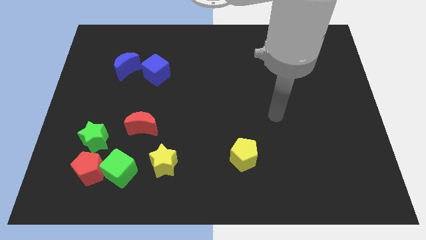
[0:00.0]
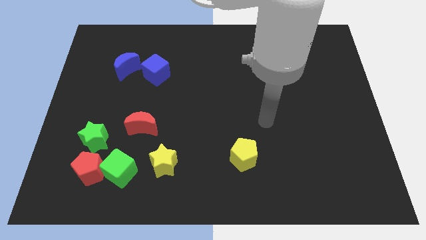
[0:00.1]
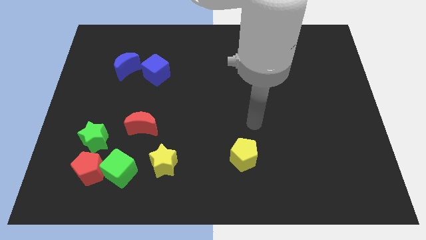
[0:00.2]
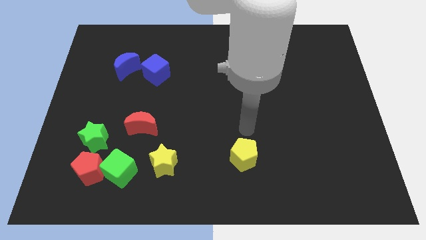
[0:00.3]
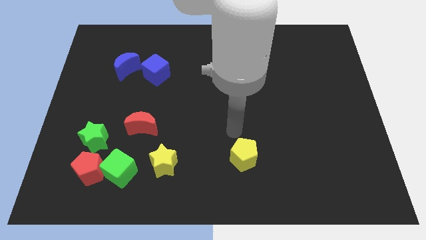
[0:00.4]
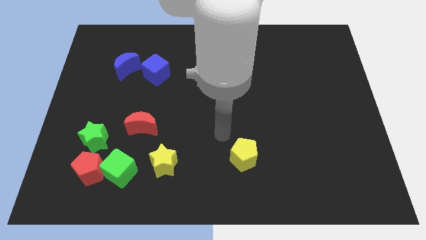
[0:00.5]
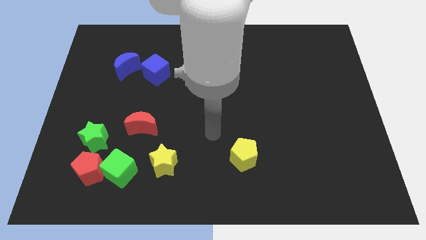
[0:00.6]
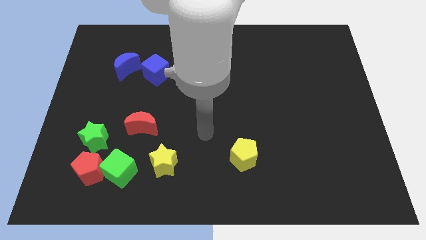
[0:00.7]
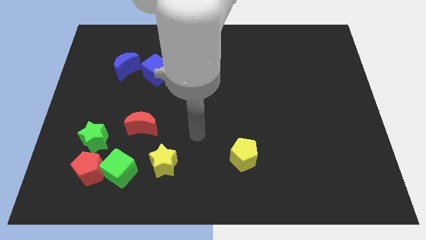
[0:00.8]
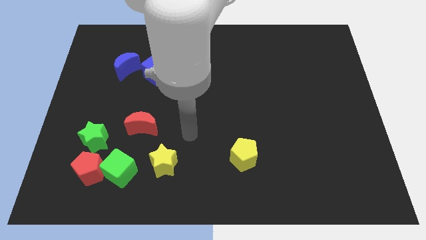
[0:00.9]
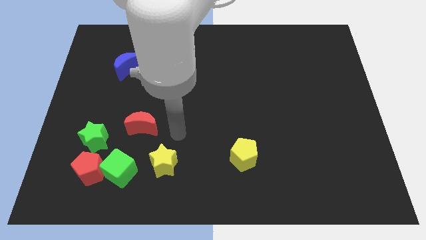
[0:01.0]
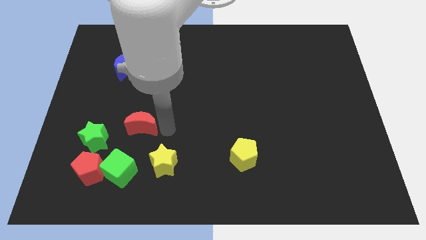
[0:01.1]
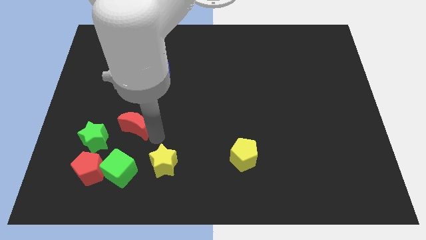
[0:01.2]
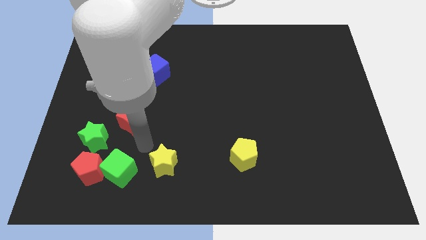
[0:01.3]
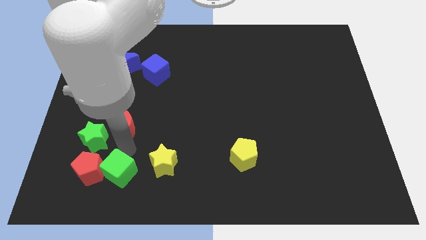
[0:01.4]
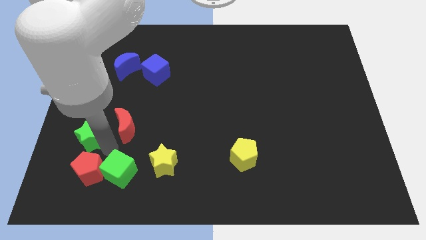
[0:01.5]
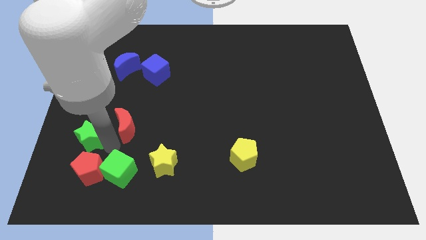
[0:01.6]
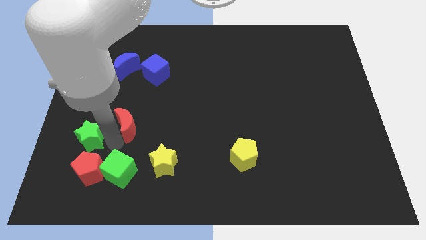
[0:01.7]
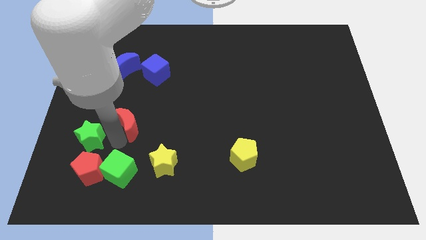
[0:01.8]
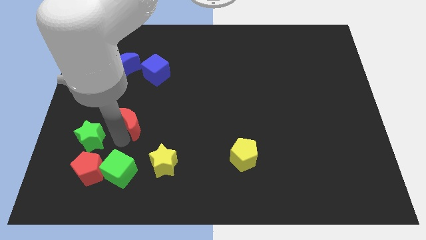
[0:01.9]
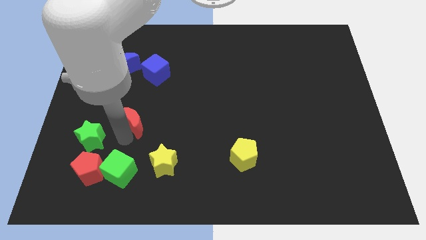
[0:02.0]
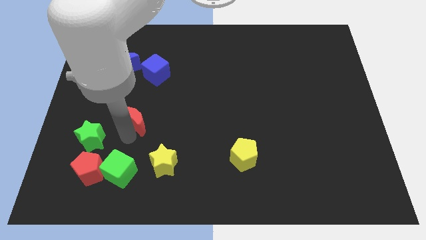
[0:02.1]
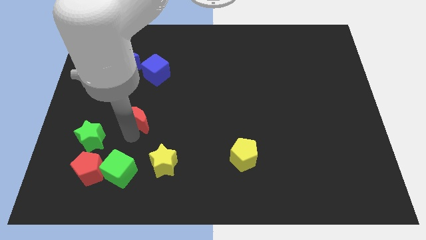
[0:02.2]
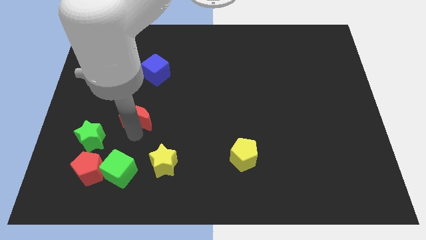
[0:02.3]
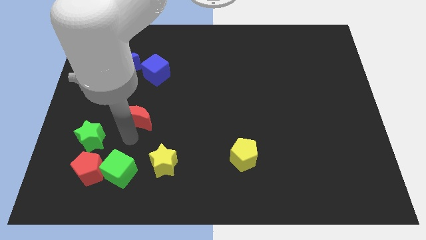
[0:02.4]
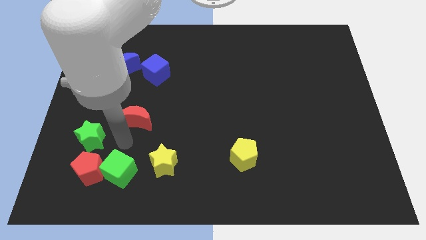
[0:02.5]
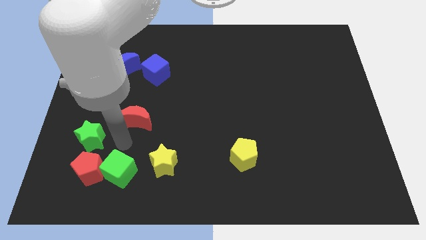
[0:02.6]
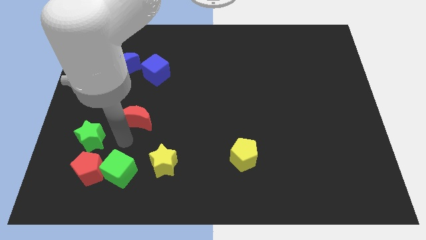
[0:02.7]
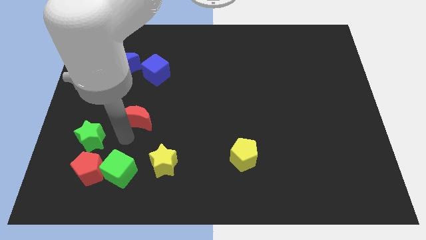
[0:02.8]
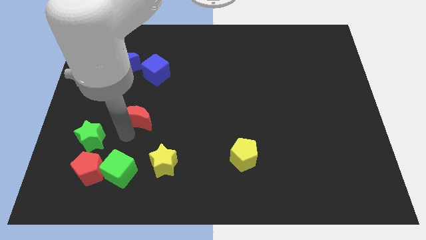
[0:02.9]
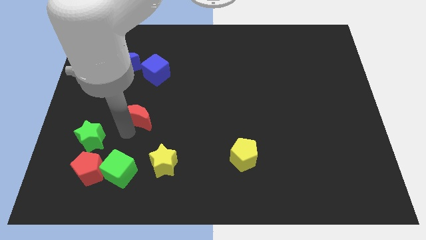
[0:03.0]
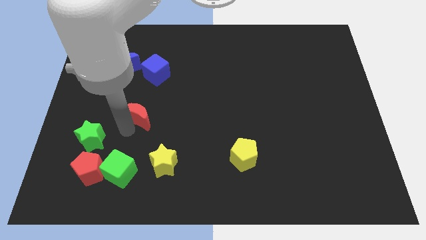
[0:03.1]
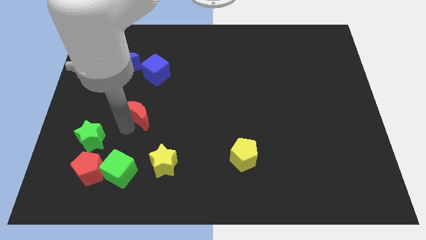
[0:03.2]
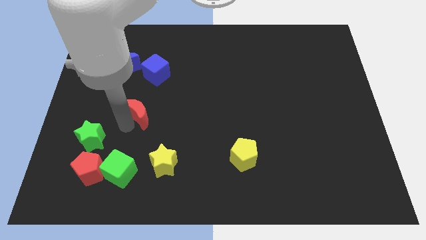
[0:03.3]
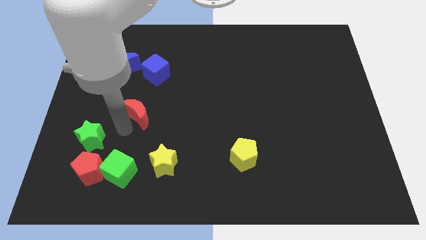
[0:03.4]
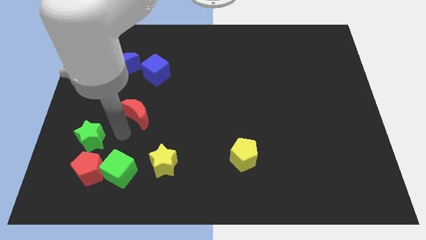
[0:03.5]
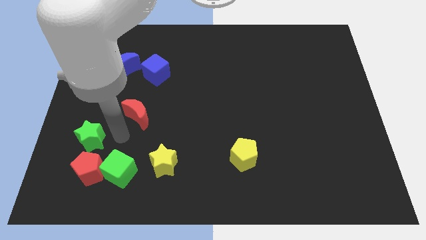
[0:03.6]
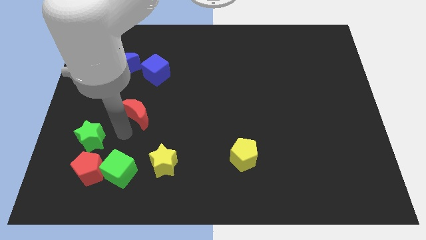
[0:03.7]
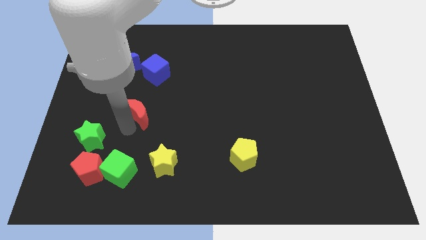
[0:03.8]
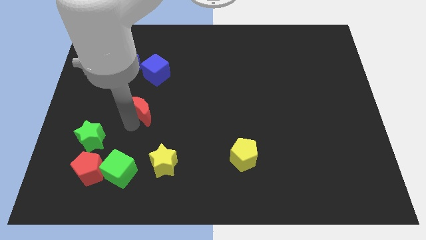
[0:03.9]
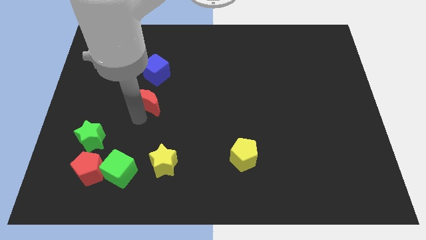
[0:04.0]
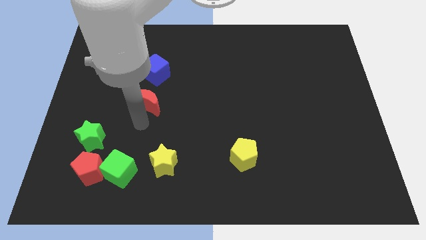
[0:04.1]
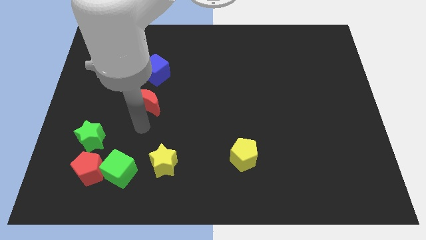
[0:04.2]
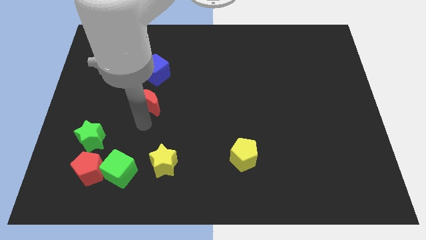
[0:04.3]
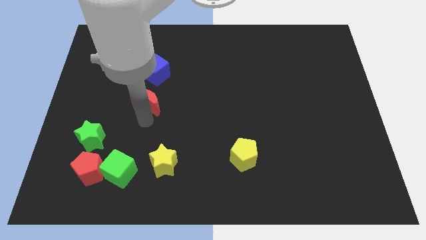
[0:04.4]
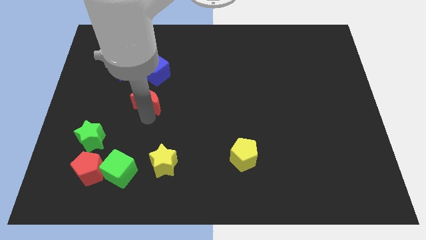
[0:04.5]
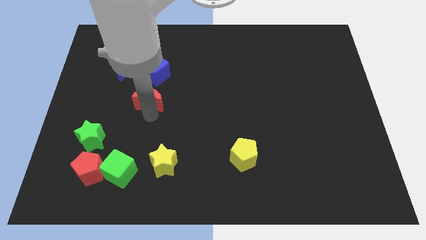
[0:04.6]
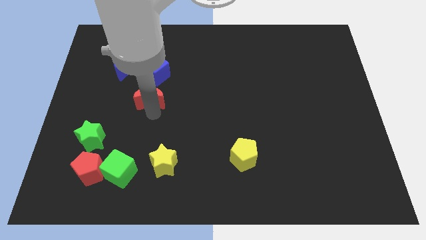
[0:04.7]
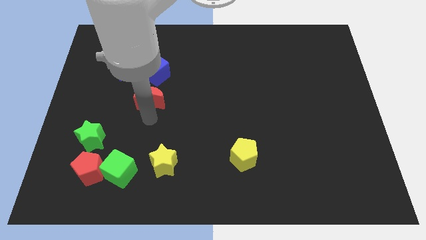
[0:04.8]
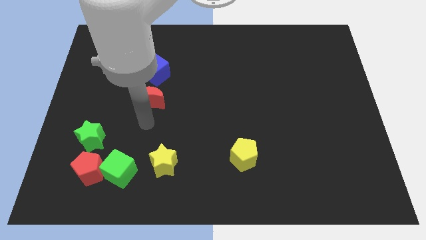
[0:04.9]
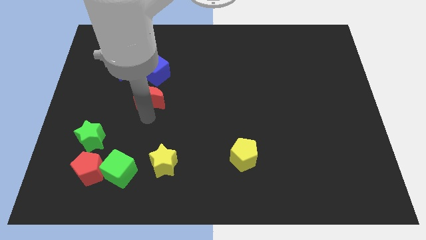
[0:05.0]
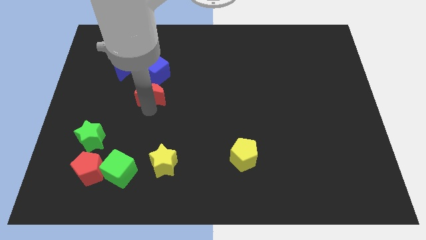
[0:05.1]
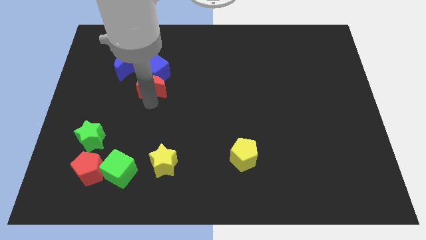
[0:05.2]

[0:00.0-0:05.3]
put the red moon next to the blue cube

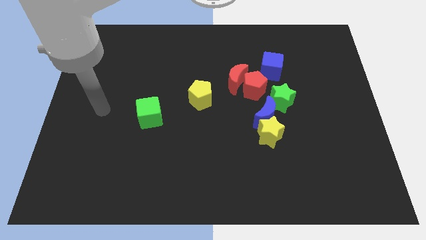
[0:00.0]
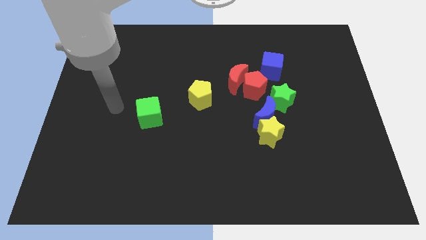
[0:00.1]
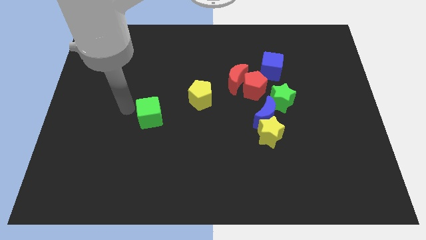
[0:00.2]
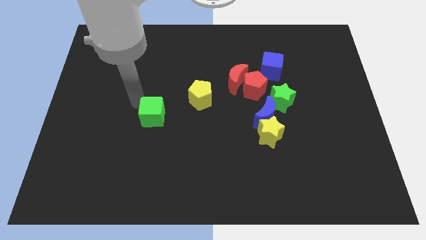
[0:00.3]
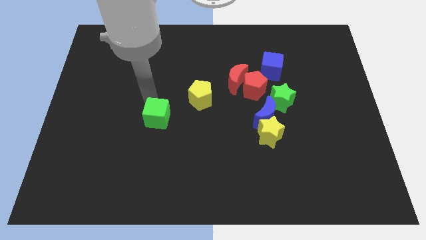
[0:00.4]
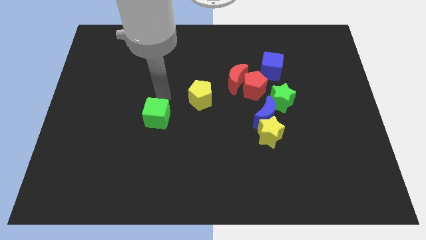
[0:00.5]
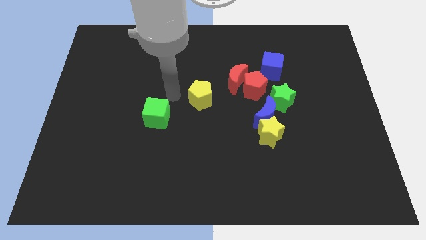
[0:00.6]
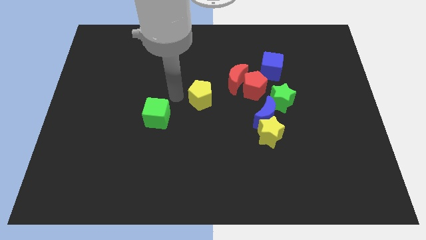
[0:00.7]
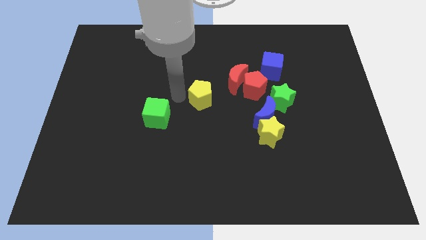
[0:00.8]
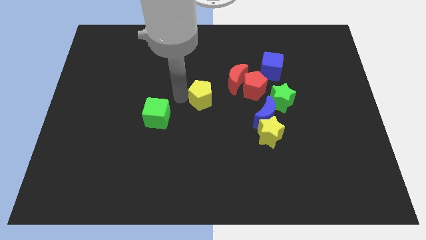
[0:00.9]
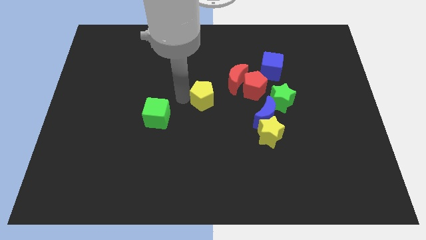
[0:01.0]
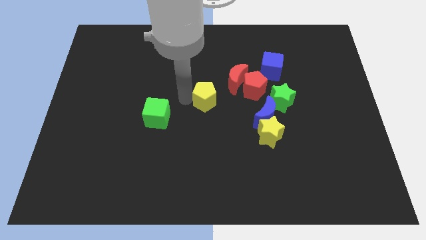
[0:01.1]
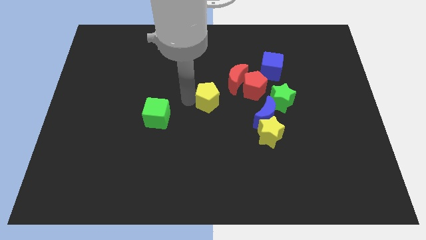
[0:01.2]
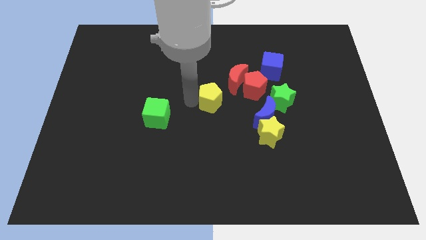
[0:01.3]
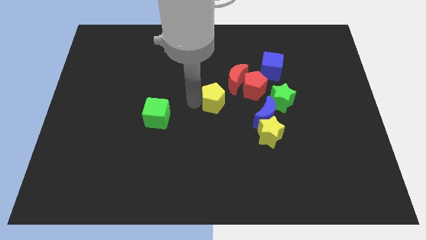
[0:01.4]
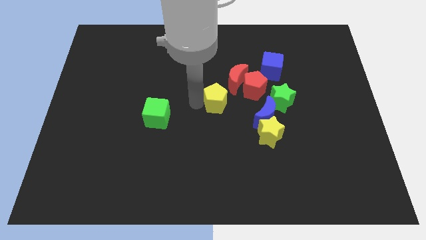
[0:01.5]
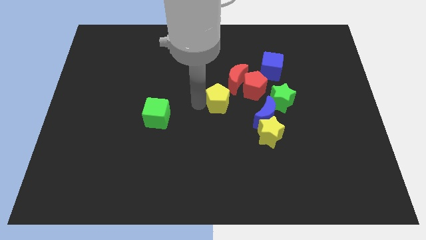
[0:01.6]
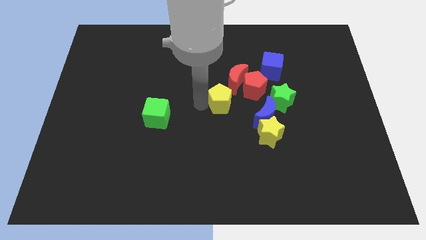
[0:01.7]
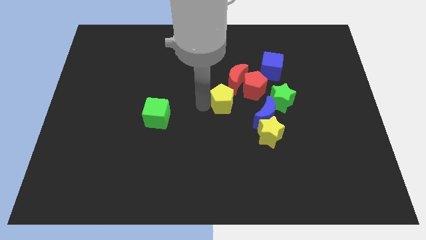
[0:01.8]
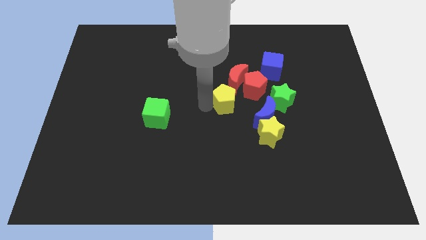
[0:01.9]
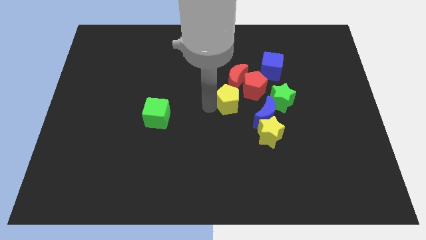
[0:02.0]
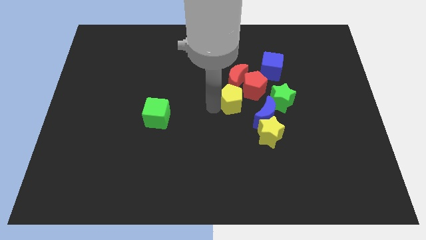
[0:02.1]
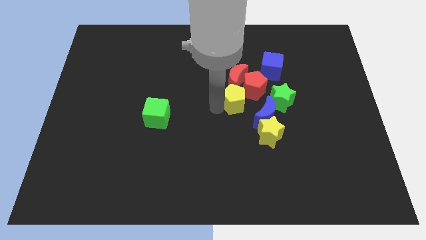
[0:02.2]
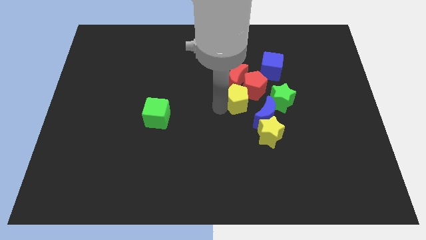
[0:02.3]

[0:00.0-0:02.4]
slide the yellow pentagon next to the red pentagon
